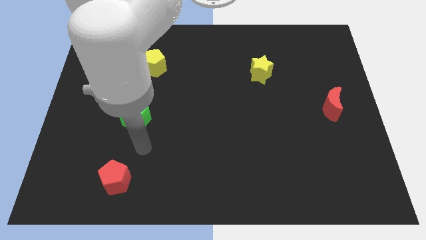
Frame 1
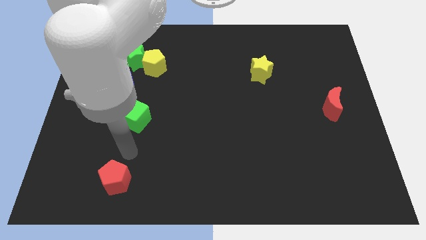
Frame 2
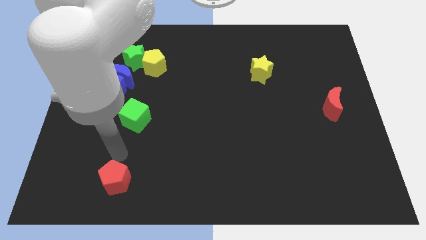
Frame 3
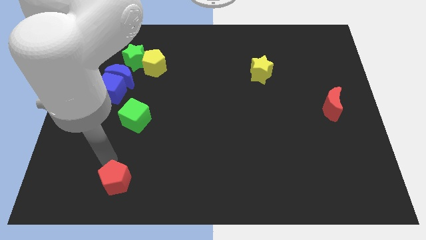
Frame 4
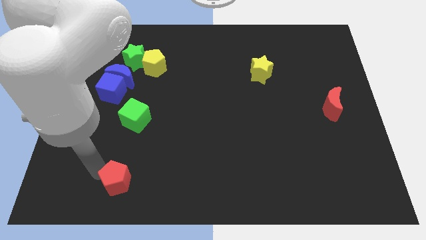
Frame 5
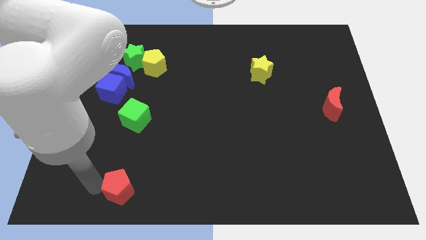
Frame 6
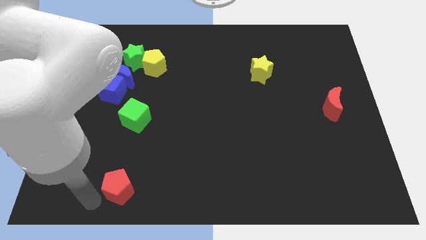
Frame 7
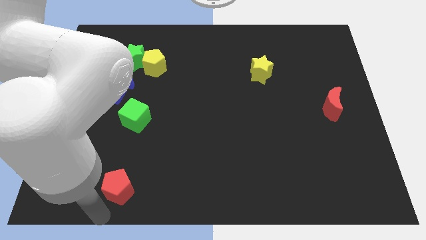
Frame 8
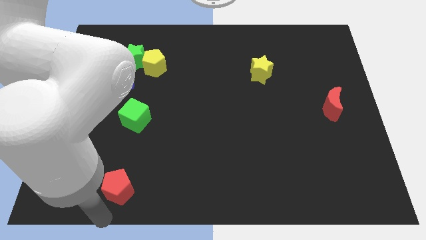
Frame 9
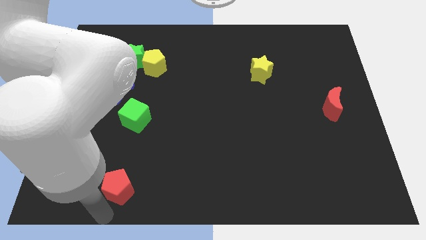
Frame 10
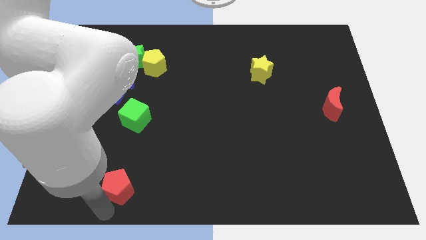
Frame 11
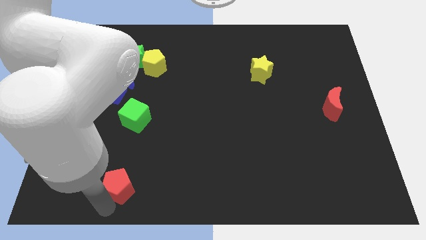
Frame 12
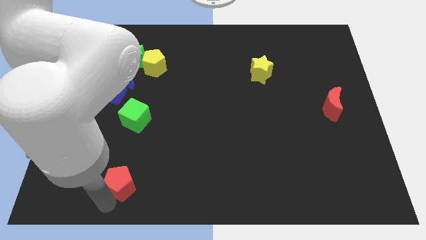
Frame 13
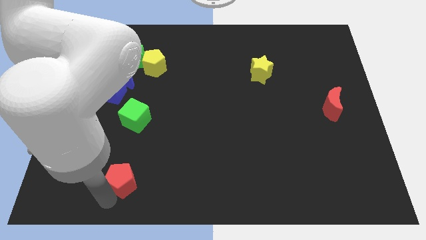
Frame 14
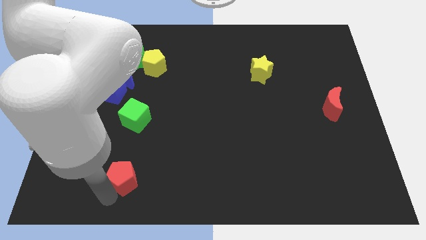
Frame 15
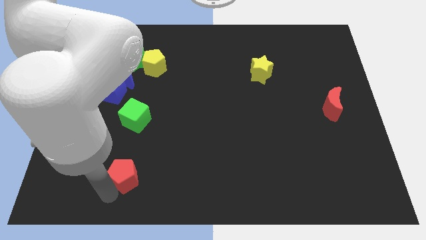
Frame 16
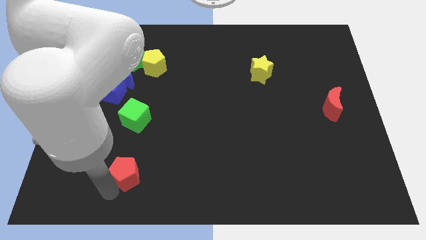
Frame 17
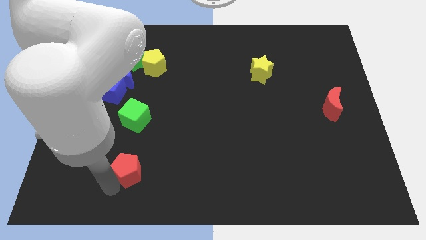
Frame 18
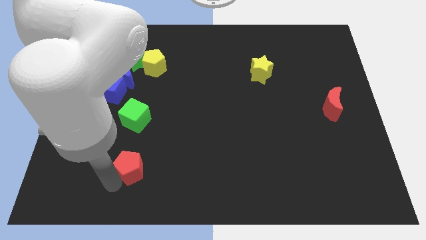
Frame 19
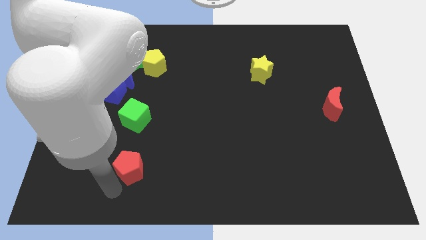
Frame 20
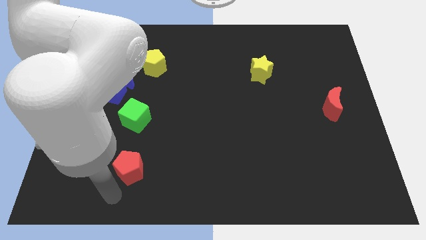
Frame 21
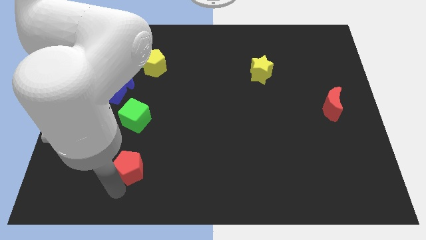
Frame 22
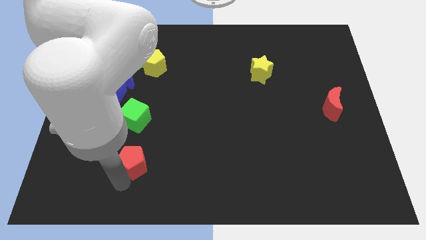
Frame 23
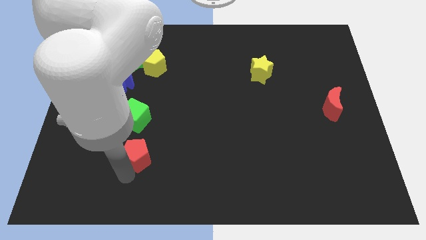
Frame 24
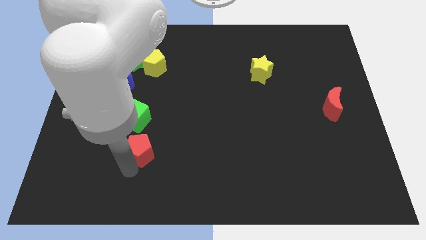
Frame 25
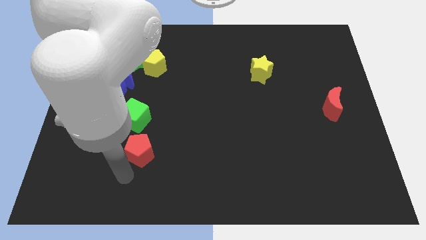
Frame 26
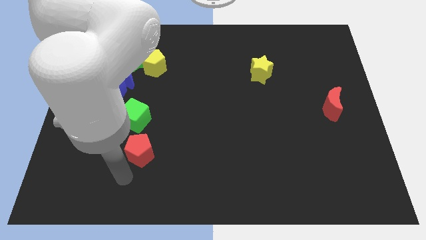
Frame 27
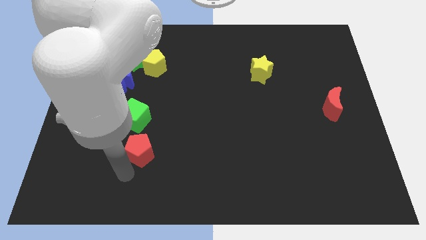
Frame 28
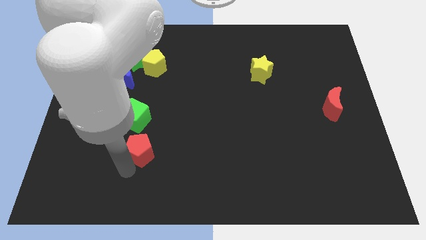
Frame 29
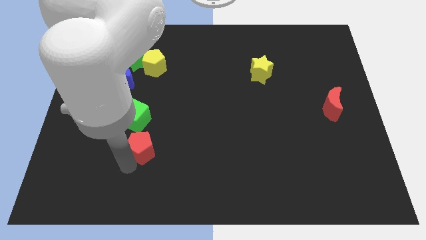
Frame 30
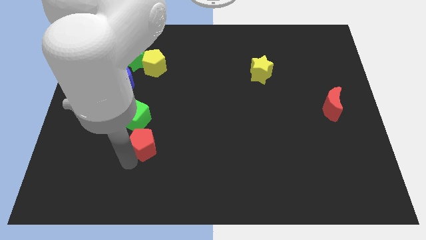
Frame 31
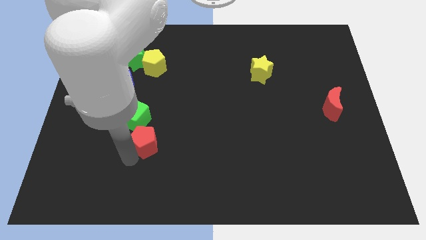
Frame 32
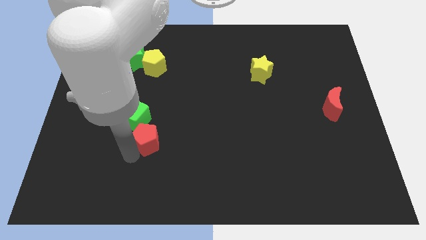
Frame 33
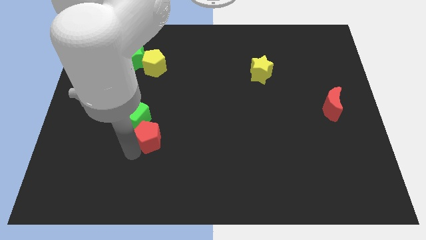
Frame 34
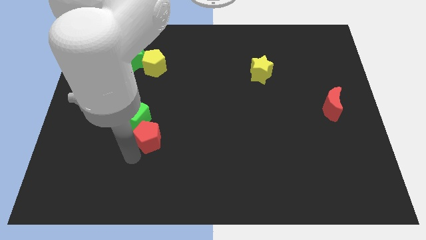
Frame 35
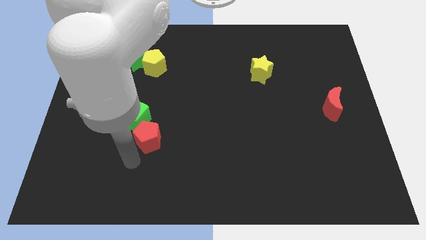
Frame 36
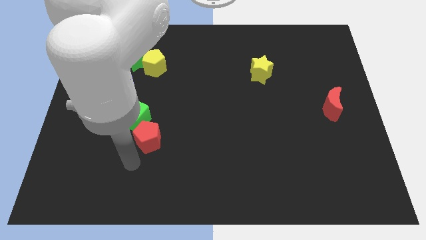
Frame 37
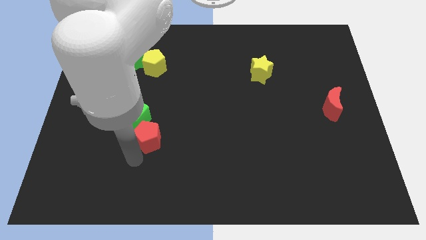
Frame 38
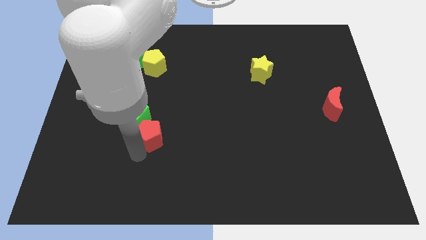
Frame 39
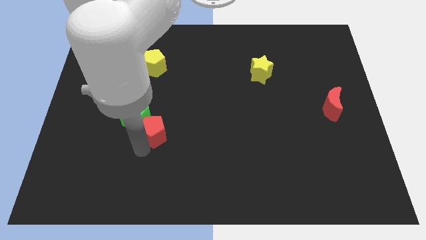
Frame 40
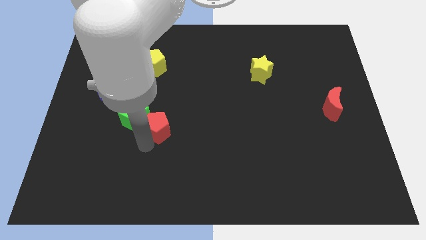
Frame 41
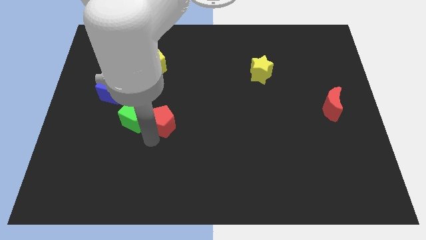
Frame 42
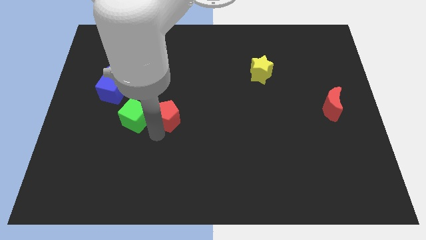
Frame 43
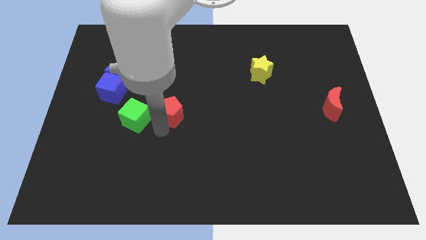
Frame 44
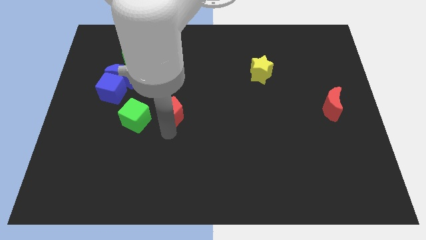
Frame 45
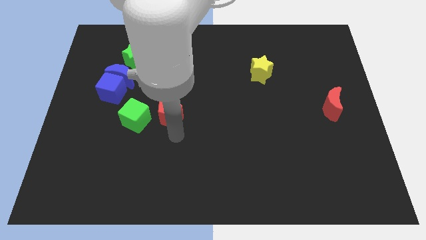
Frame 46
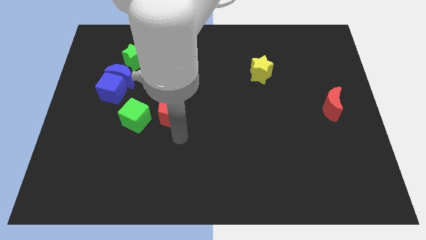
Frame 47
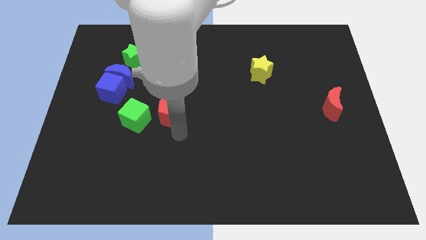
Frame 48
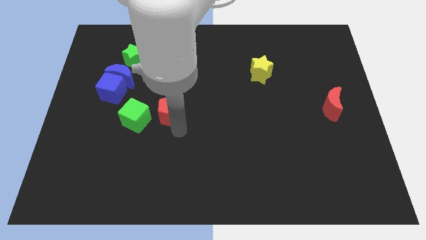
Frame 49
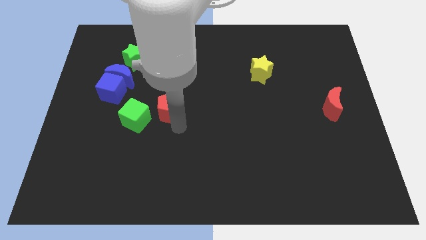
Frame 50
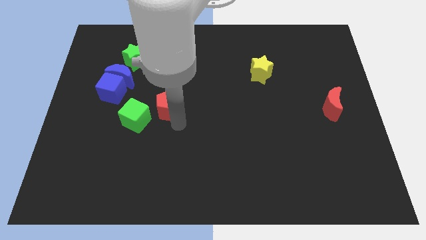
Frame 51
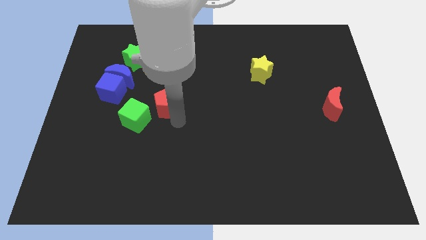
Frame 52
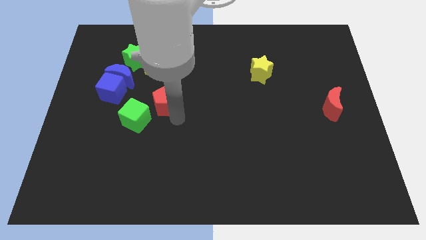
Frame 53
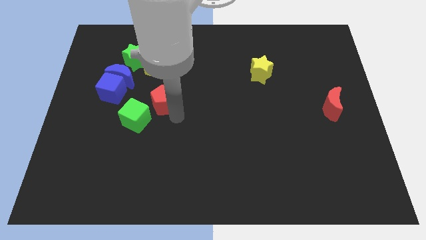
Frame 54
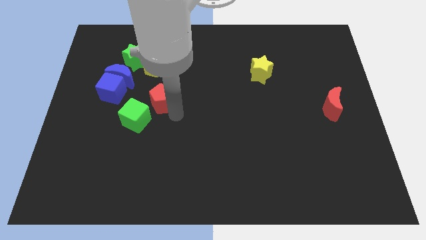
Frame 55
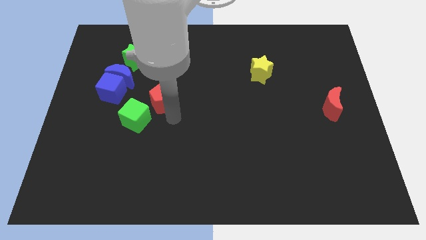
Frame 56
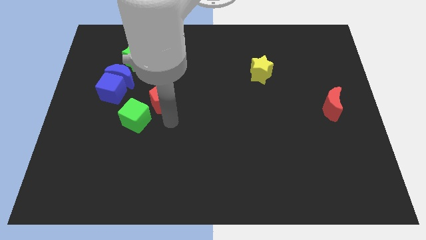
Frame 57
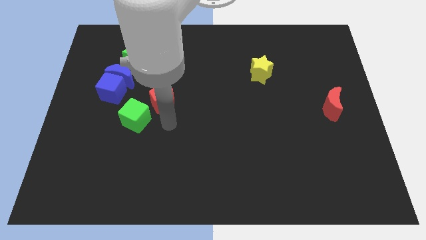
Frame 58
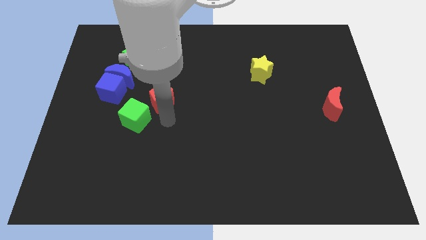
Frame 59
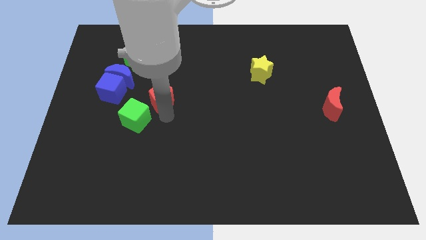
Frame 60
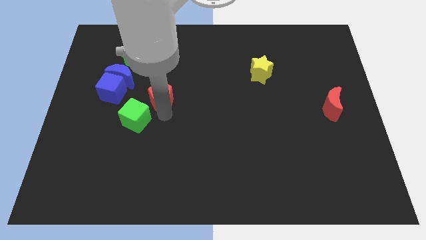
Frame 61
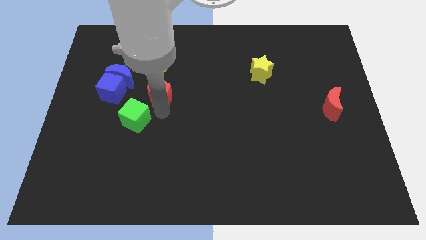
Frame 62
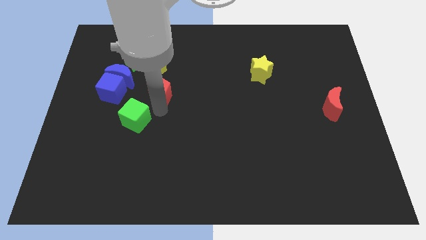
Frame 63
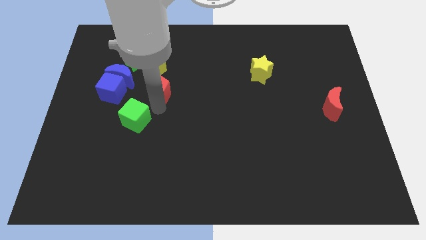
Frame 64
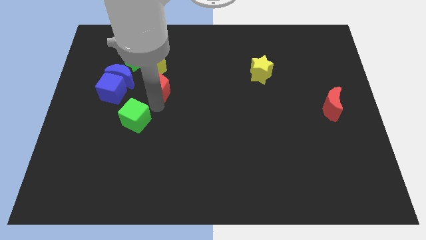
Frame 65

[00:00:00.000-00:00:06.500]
push the red pentagon diagonally down and to the right of the green star
